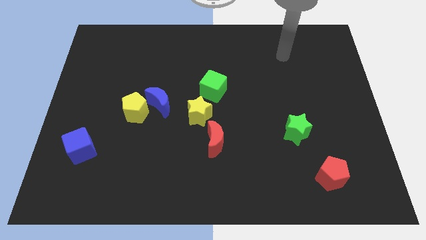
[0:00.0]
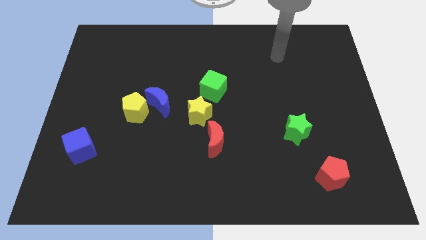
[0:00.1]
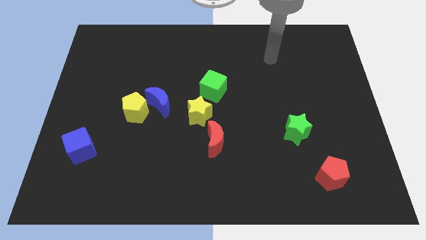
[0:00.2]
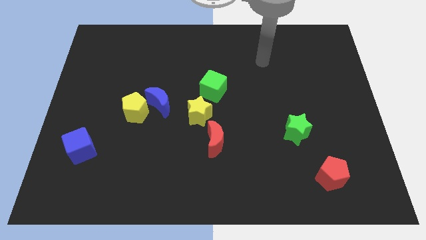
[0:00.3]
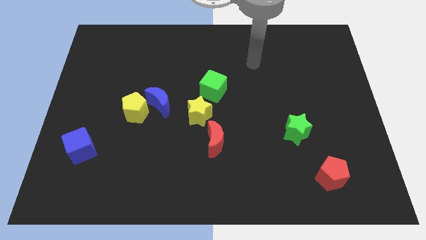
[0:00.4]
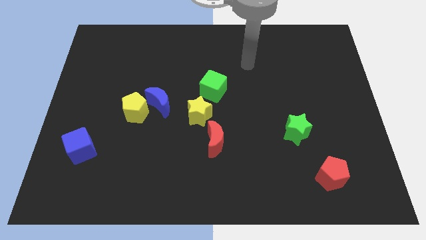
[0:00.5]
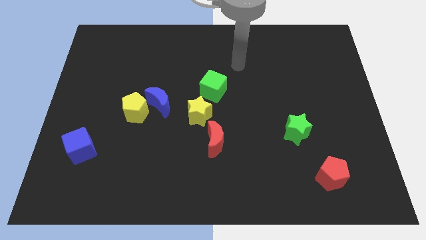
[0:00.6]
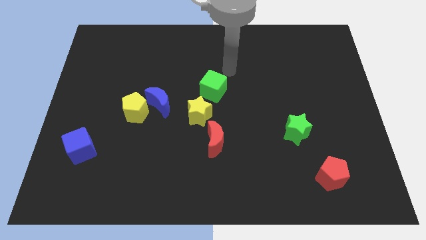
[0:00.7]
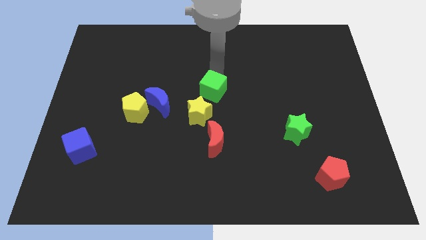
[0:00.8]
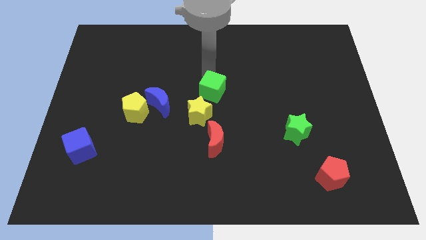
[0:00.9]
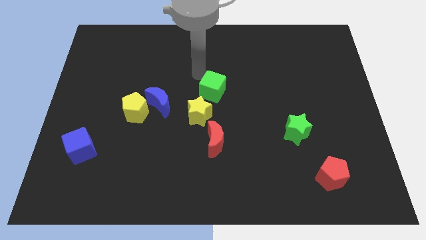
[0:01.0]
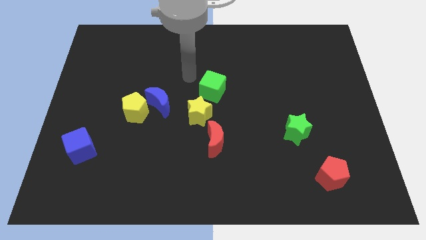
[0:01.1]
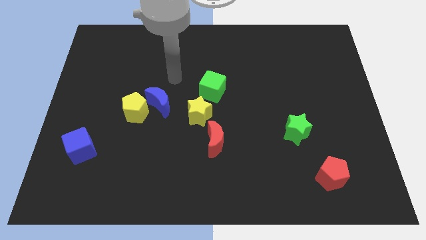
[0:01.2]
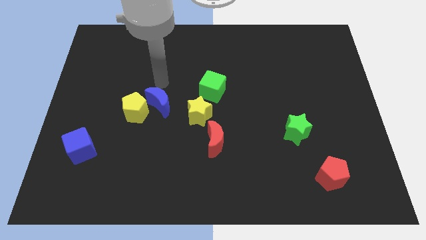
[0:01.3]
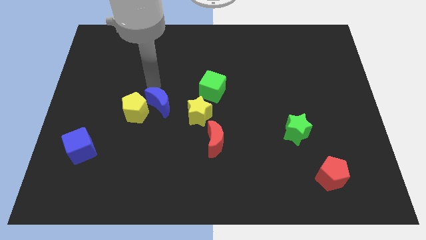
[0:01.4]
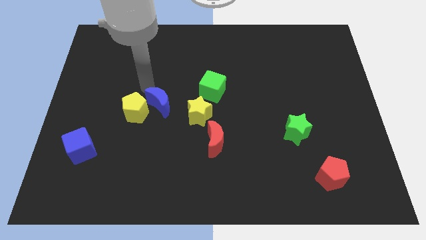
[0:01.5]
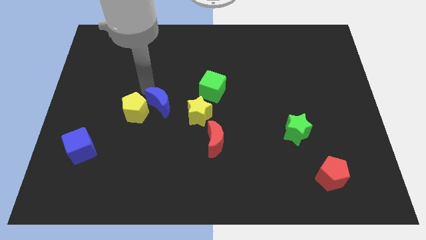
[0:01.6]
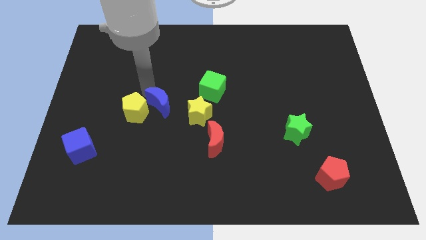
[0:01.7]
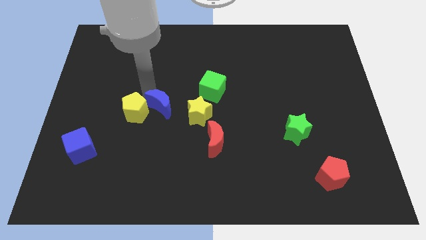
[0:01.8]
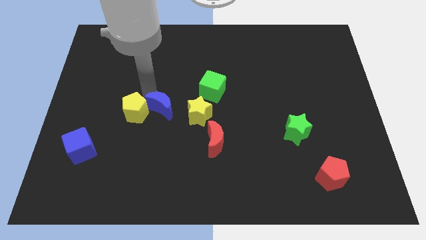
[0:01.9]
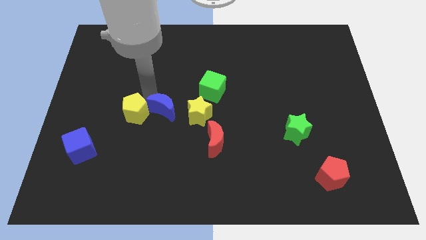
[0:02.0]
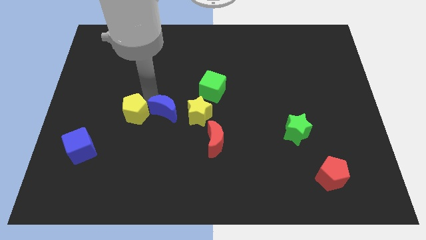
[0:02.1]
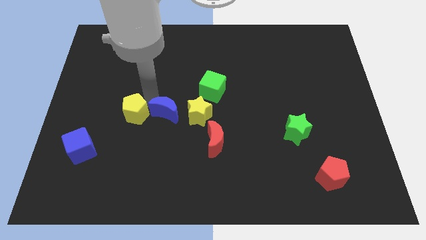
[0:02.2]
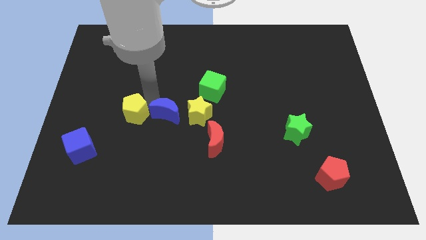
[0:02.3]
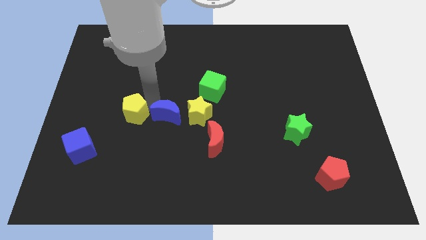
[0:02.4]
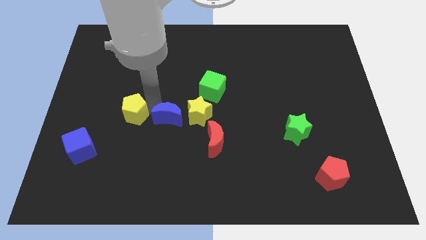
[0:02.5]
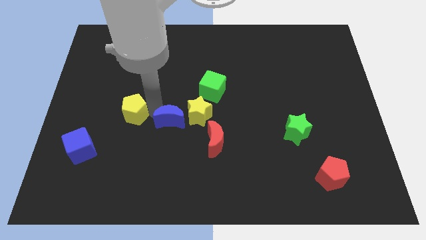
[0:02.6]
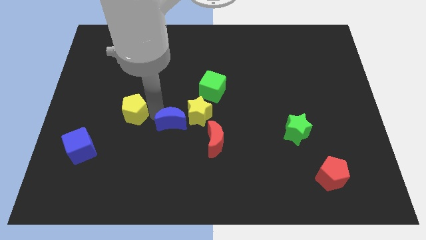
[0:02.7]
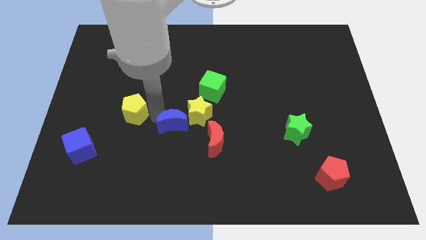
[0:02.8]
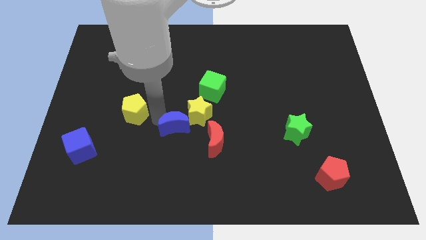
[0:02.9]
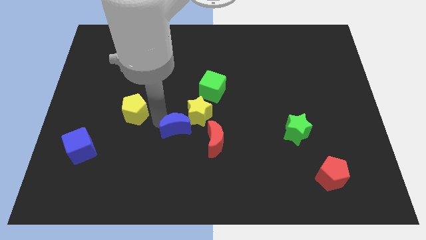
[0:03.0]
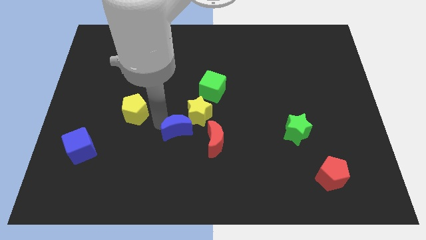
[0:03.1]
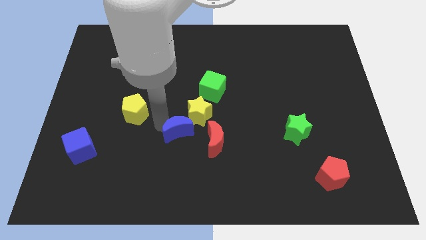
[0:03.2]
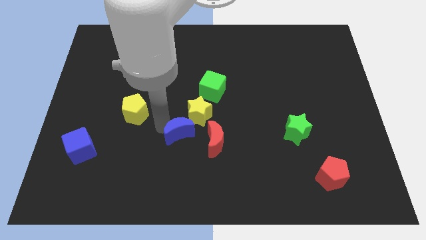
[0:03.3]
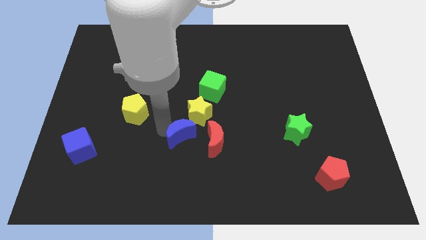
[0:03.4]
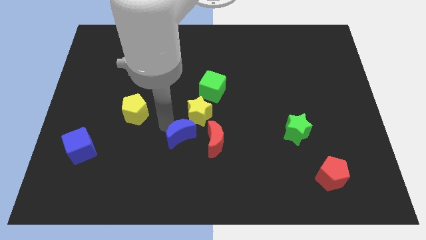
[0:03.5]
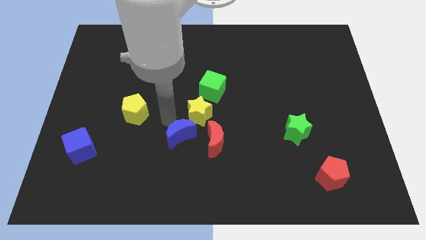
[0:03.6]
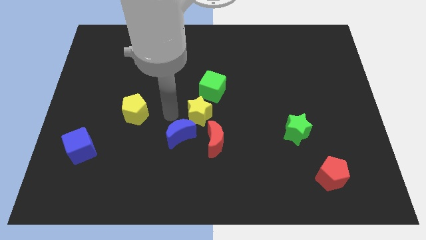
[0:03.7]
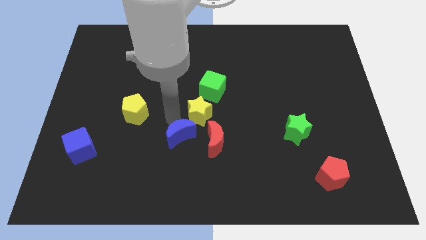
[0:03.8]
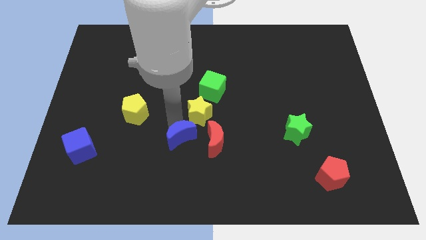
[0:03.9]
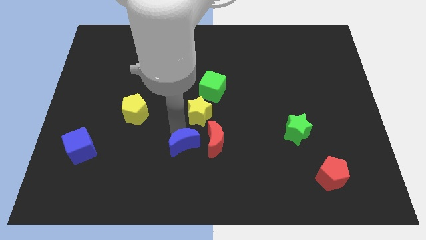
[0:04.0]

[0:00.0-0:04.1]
move the blue moon diagonally down and to the left of the red moon

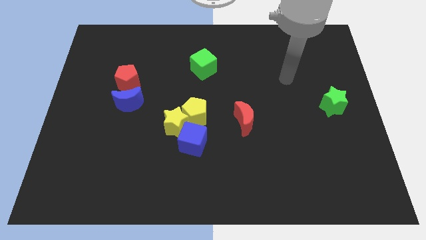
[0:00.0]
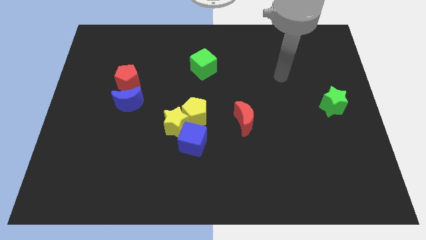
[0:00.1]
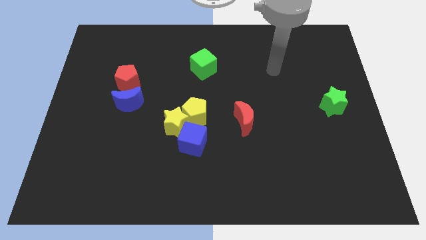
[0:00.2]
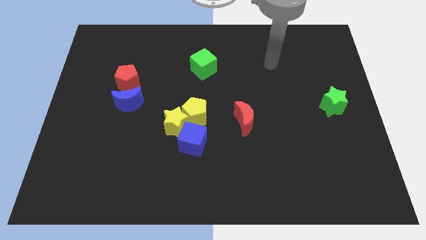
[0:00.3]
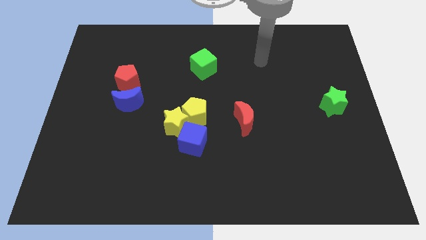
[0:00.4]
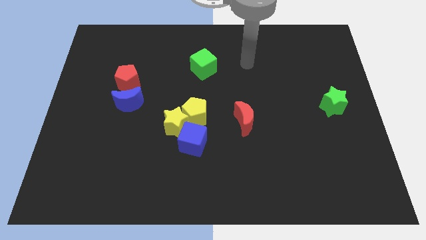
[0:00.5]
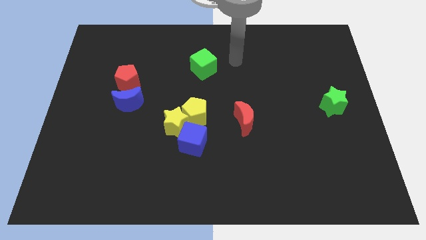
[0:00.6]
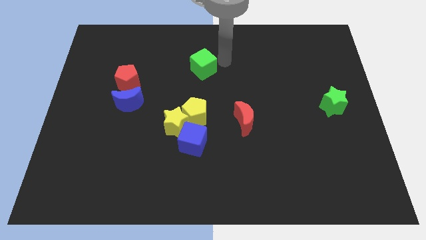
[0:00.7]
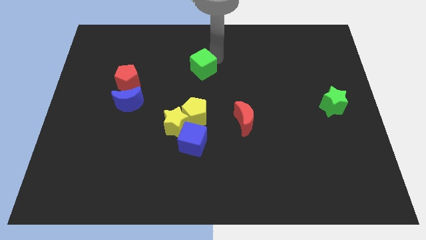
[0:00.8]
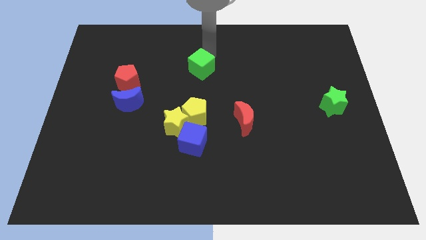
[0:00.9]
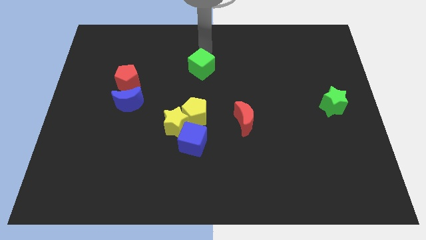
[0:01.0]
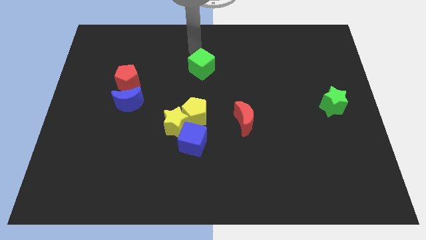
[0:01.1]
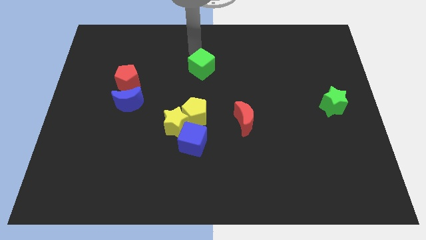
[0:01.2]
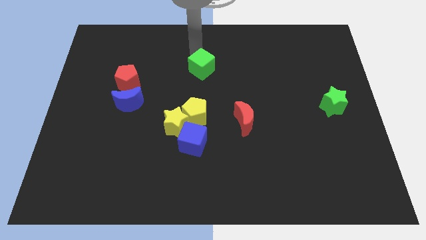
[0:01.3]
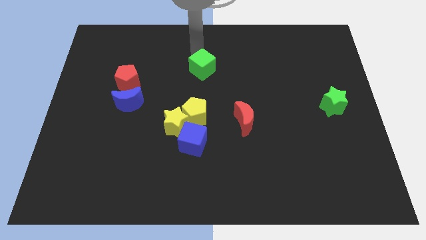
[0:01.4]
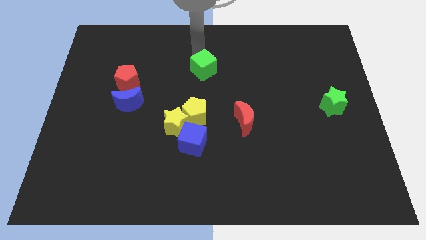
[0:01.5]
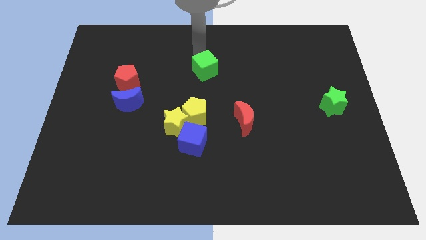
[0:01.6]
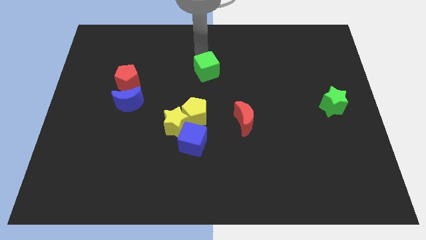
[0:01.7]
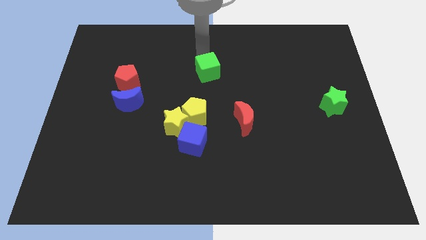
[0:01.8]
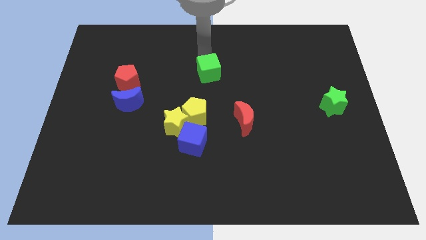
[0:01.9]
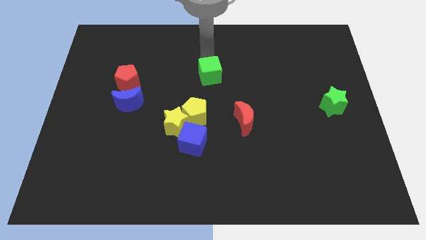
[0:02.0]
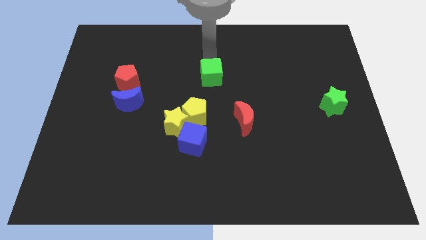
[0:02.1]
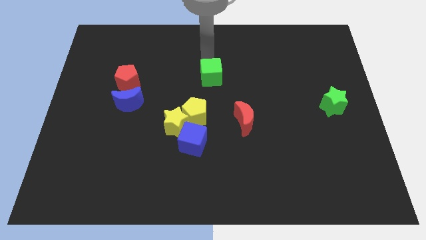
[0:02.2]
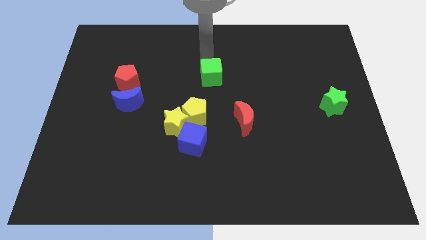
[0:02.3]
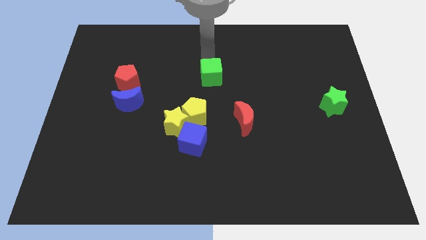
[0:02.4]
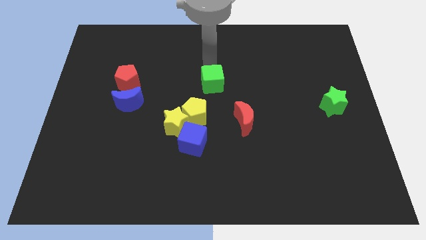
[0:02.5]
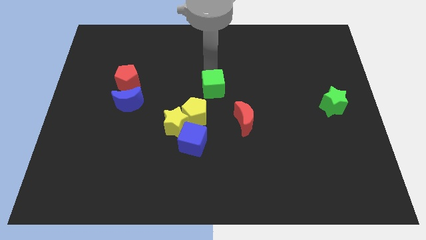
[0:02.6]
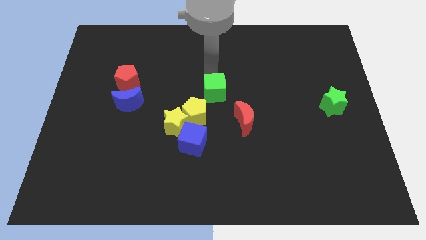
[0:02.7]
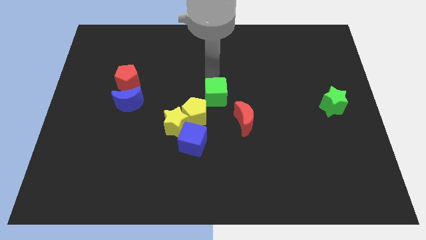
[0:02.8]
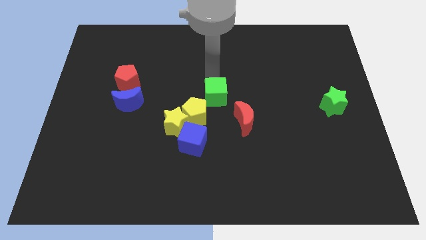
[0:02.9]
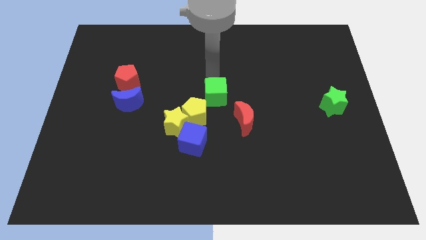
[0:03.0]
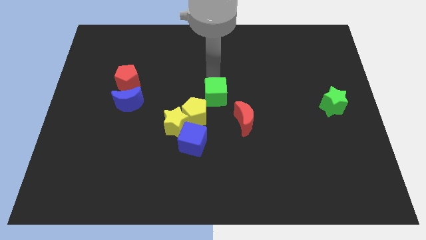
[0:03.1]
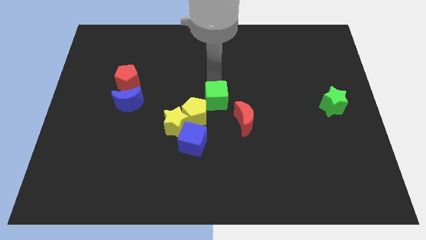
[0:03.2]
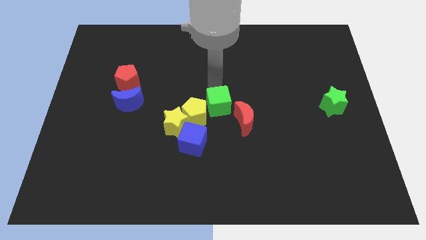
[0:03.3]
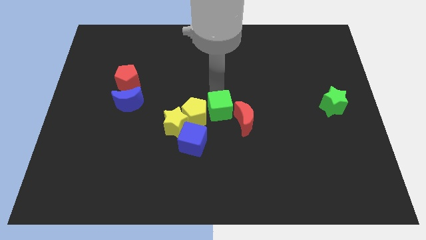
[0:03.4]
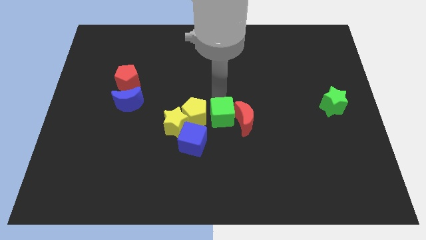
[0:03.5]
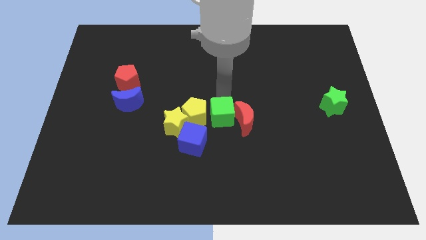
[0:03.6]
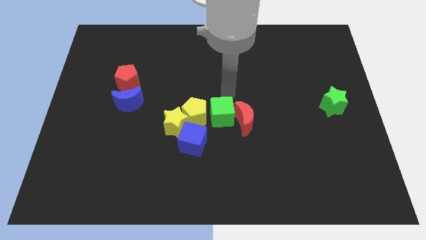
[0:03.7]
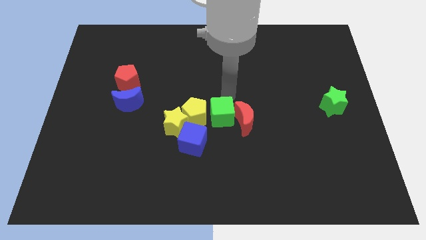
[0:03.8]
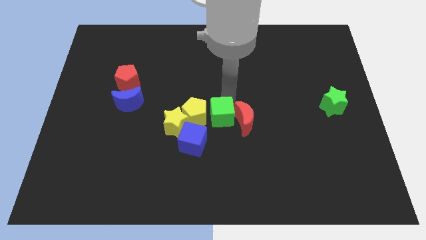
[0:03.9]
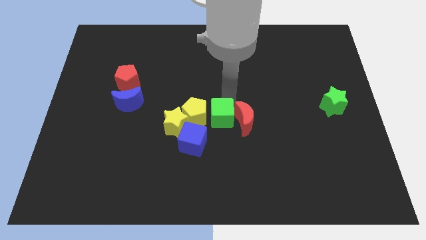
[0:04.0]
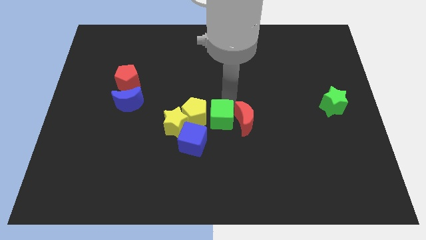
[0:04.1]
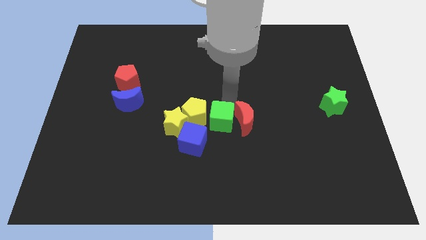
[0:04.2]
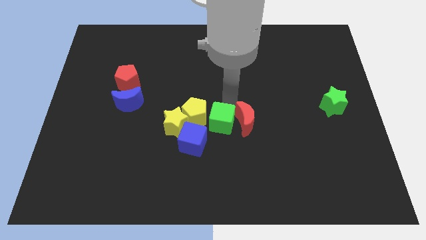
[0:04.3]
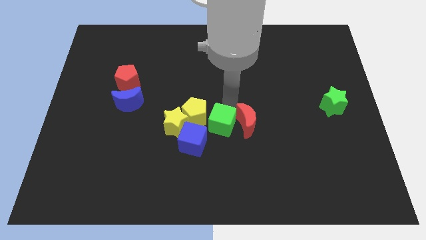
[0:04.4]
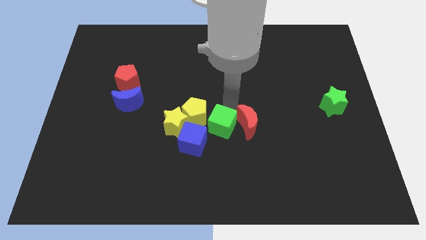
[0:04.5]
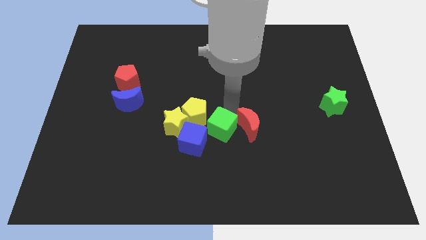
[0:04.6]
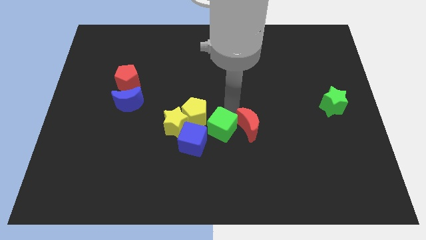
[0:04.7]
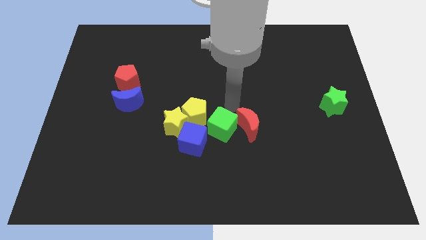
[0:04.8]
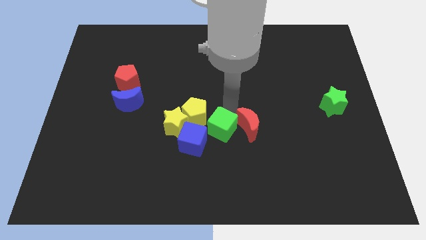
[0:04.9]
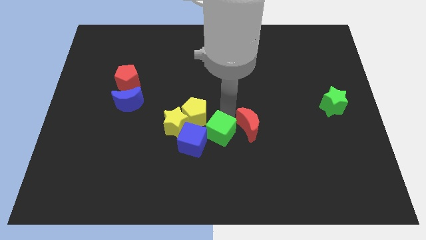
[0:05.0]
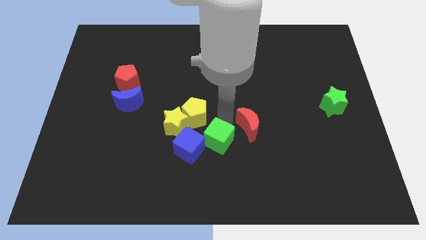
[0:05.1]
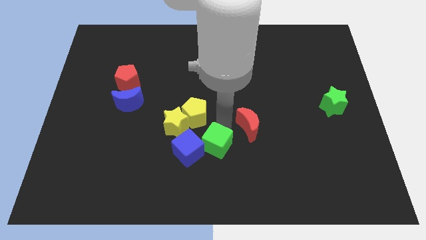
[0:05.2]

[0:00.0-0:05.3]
slide the green cube to the bottom side of the yellow pentagon
